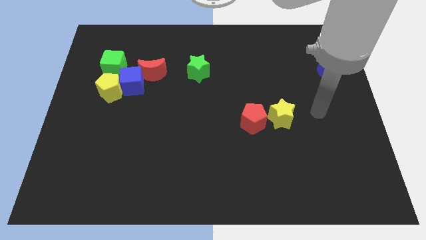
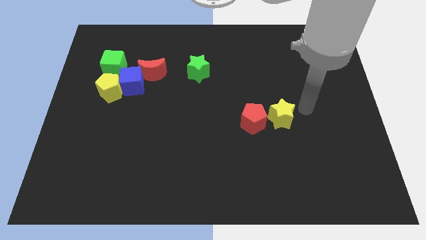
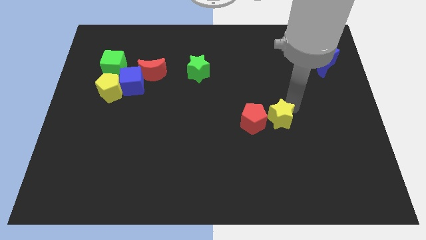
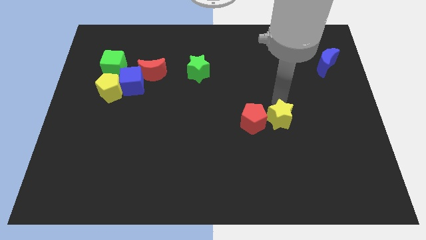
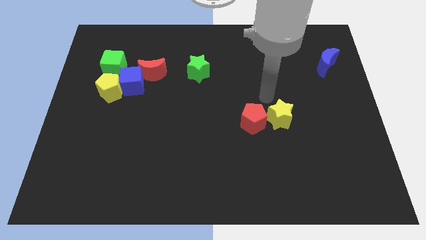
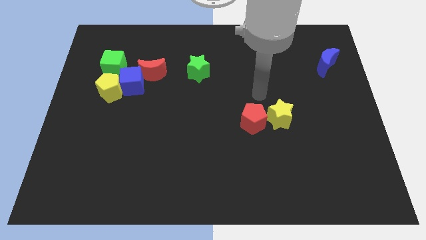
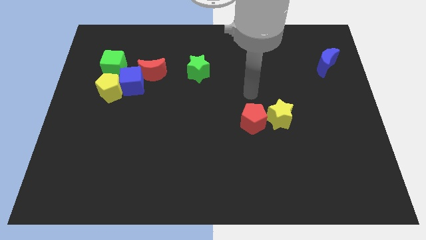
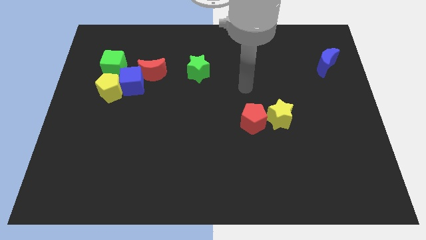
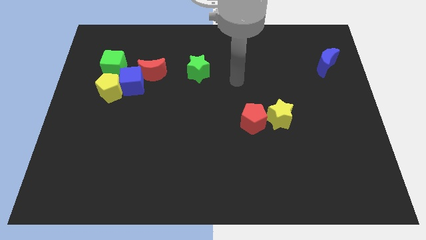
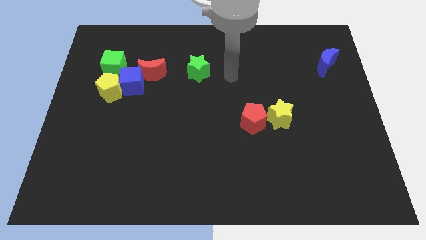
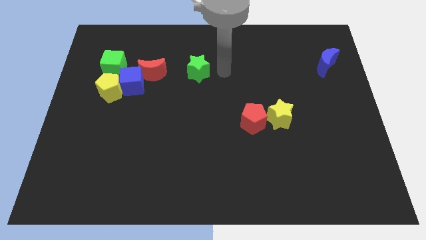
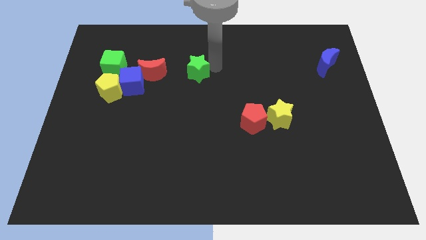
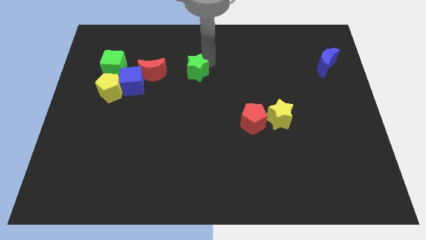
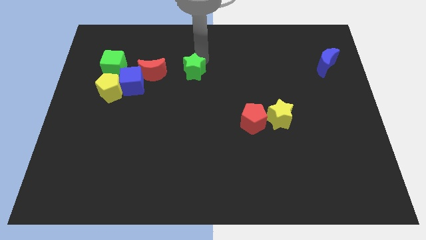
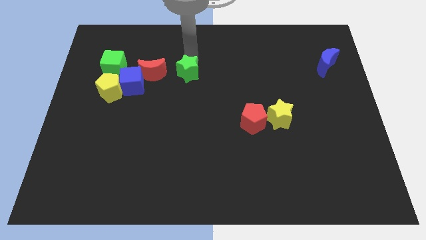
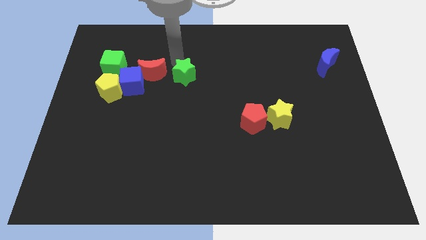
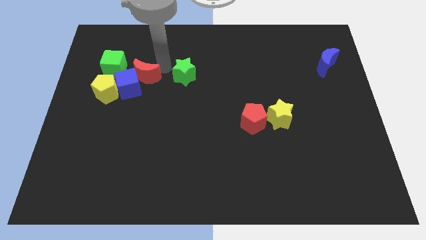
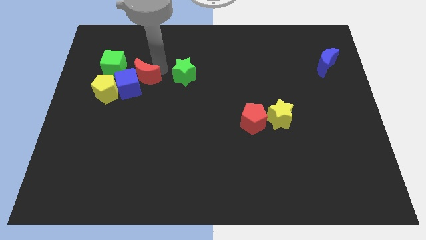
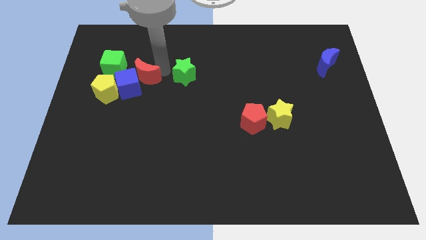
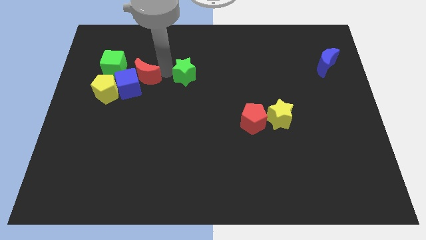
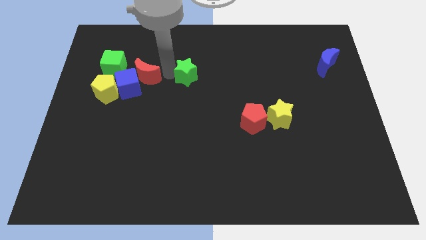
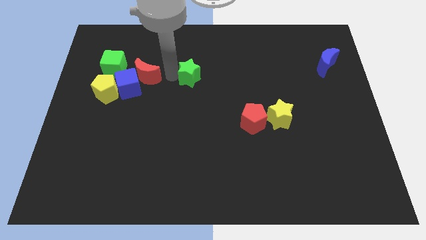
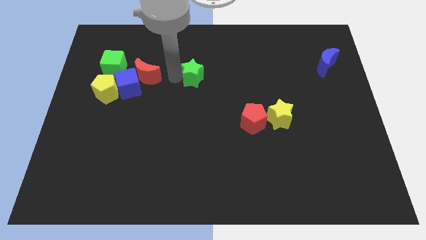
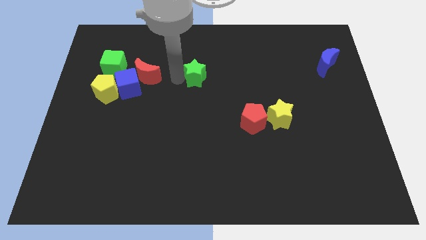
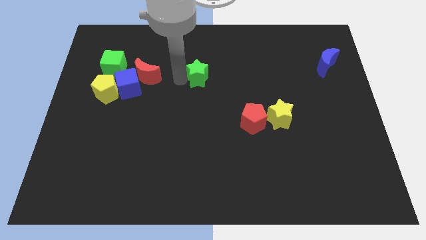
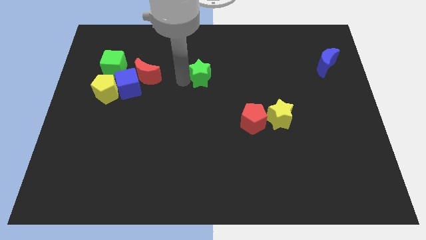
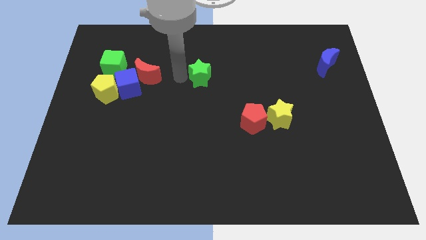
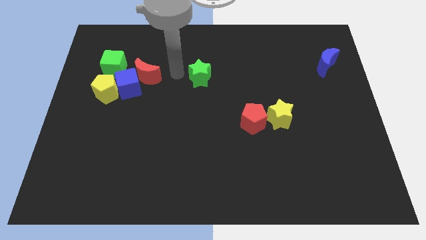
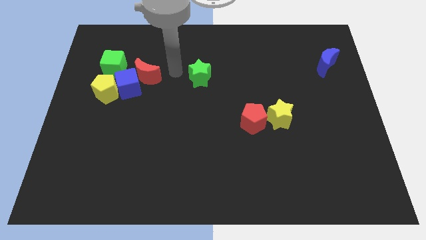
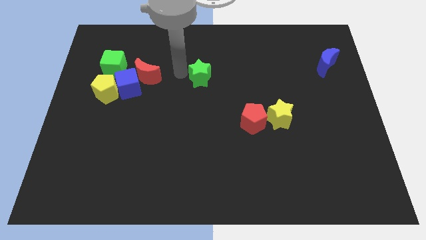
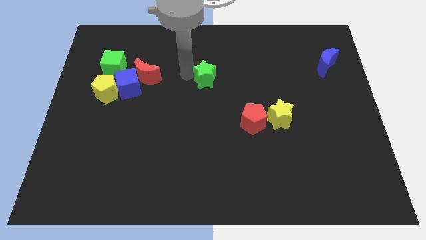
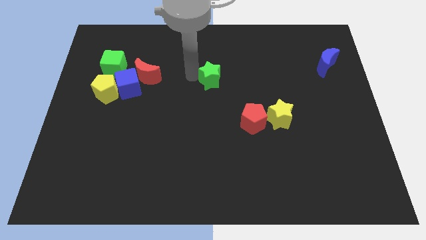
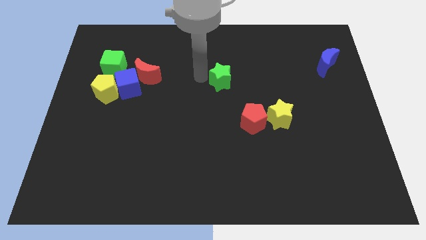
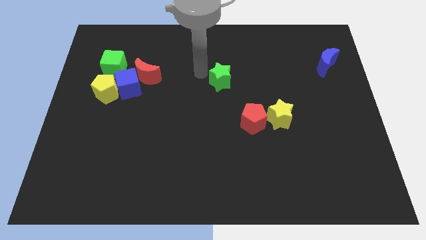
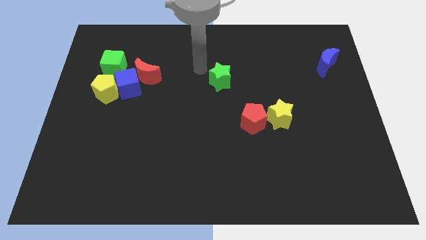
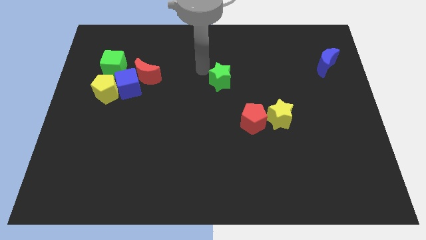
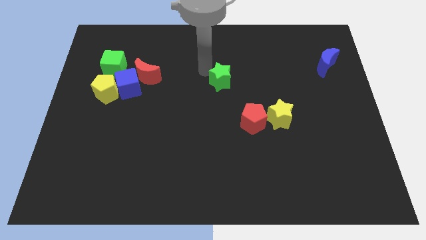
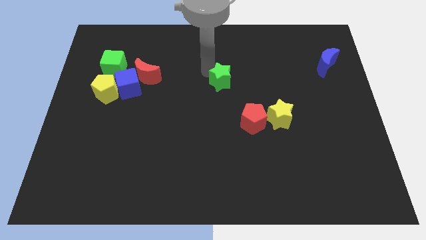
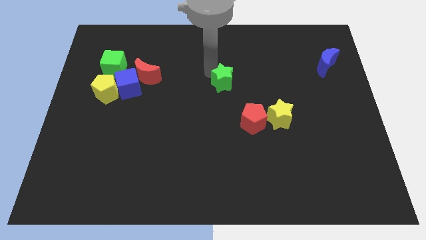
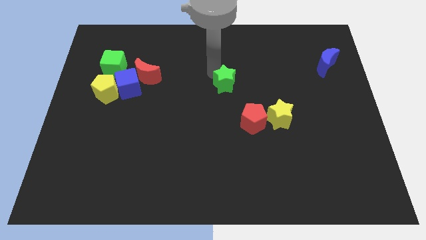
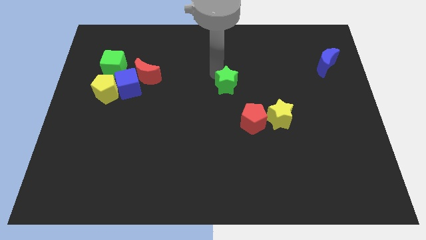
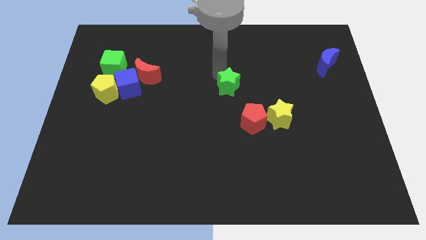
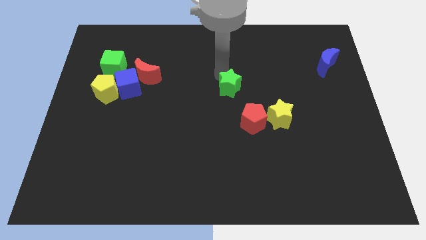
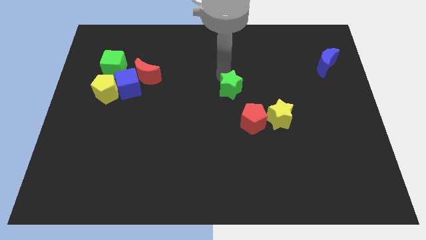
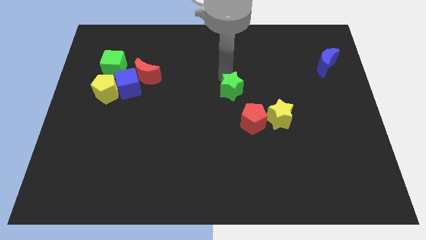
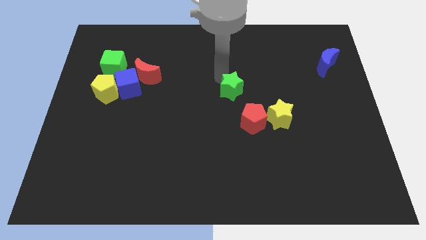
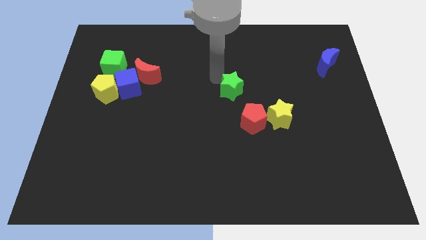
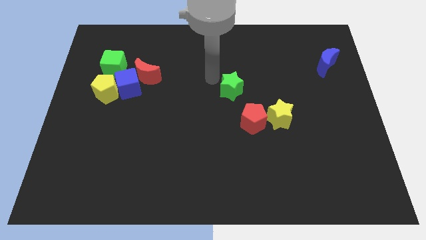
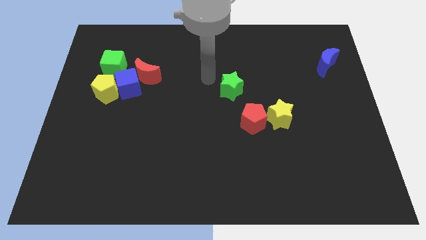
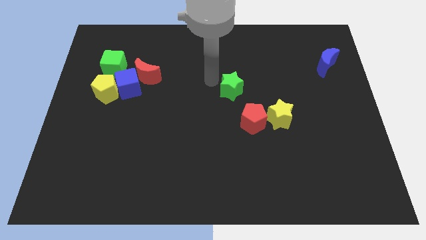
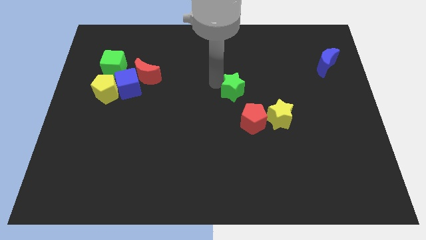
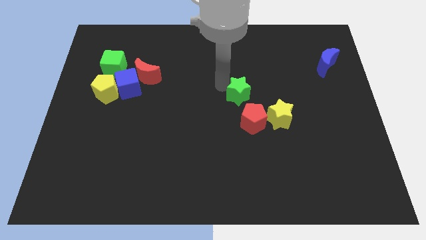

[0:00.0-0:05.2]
move the green star diagonally up and to the left of the yellow star

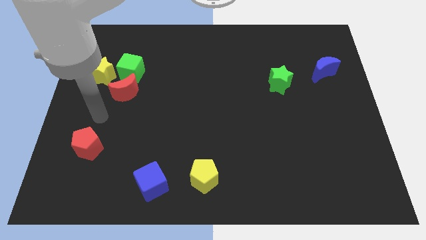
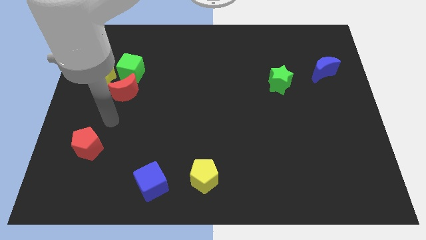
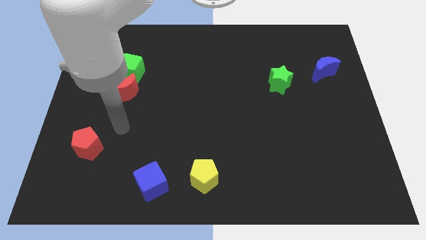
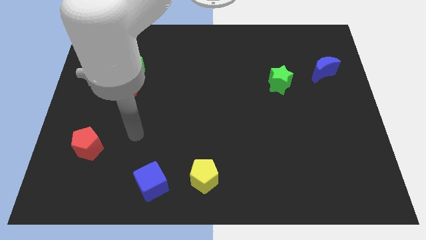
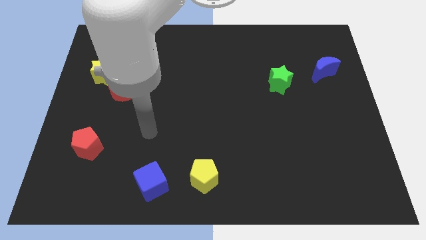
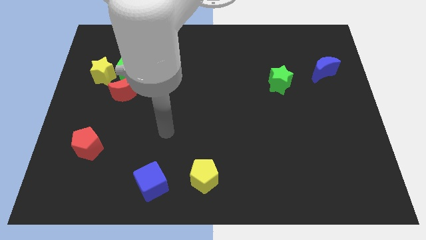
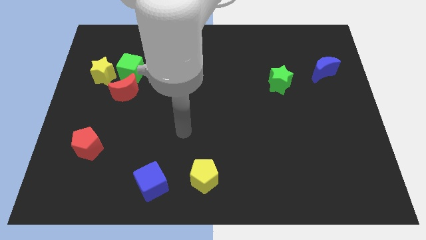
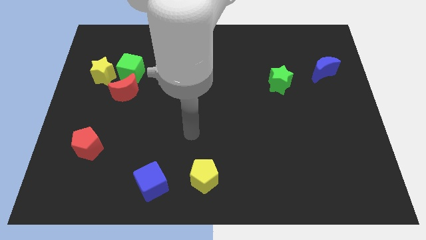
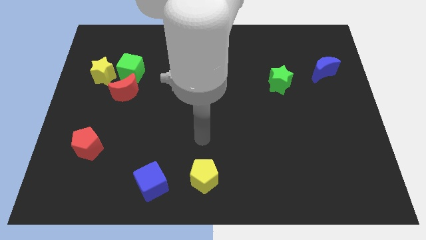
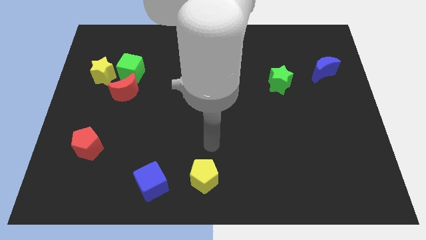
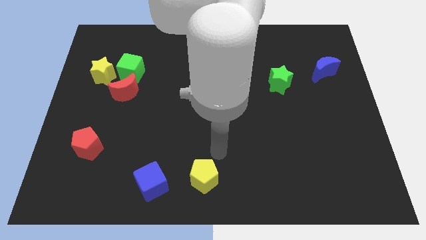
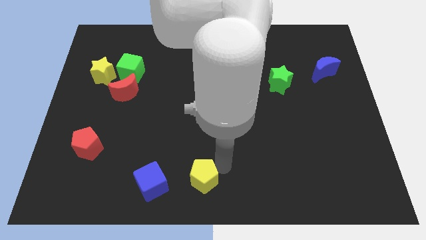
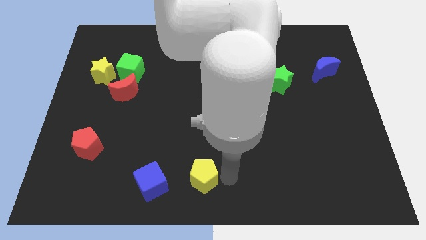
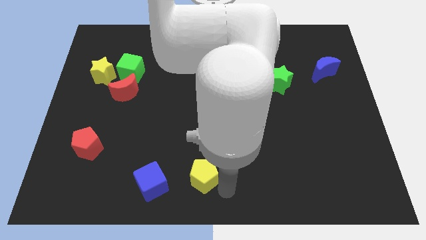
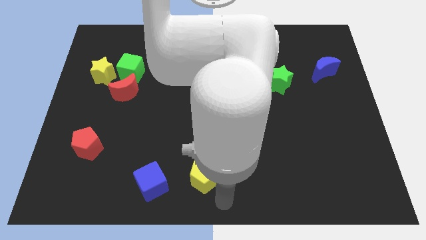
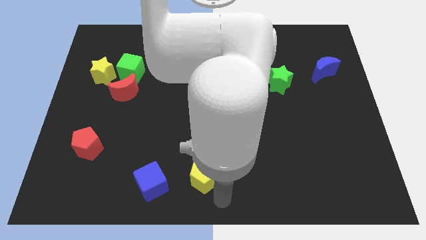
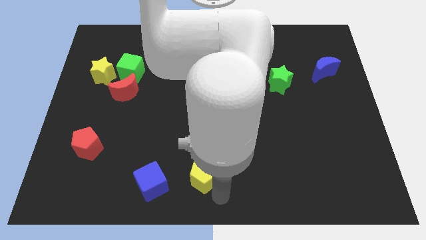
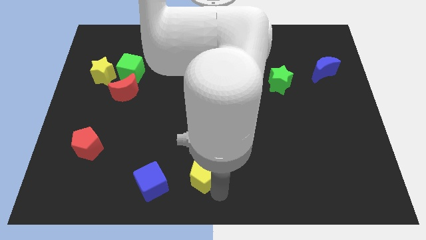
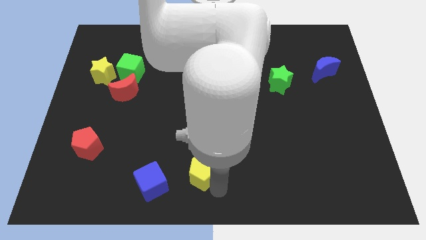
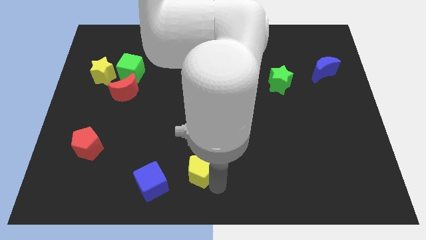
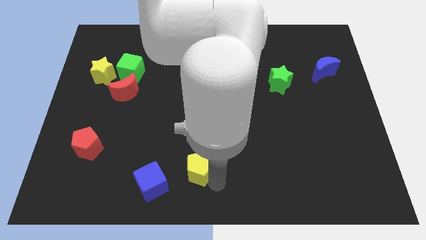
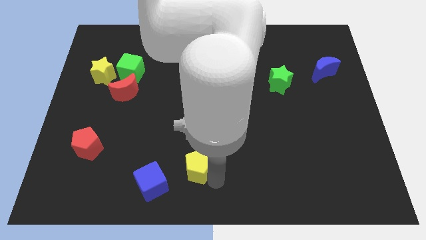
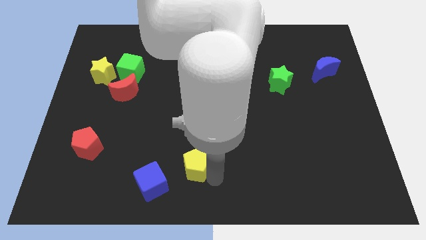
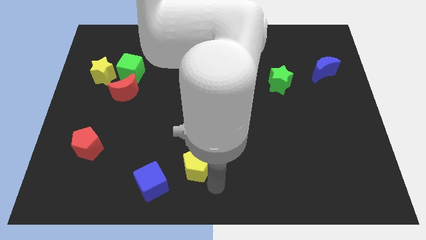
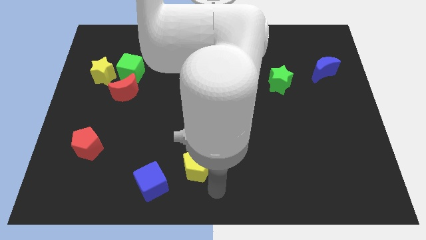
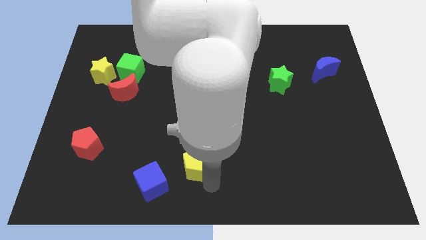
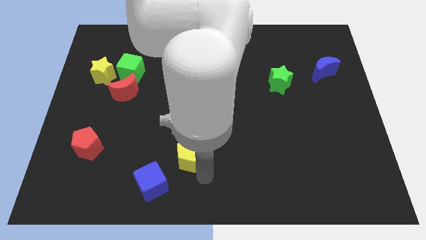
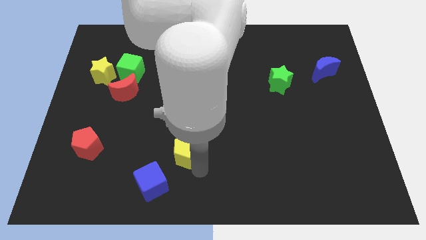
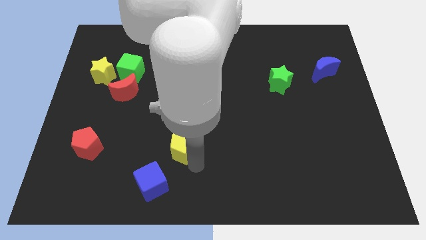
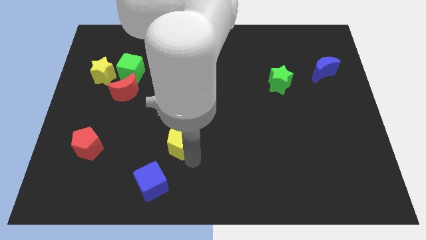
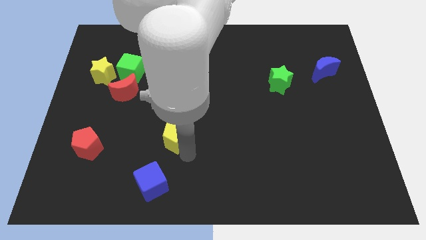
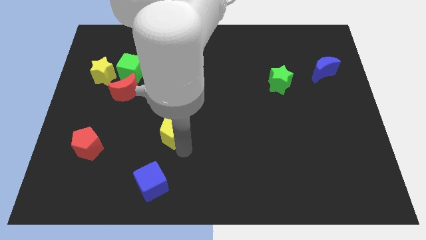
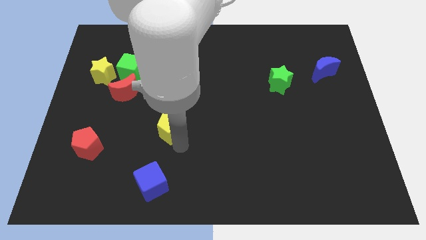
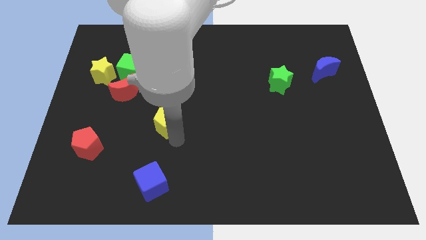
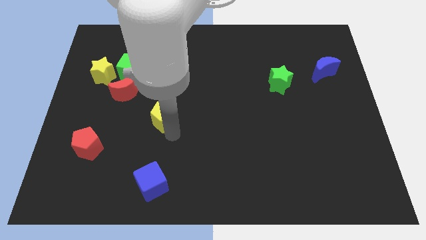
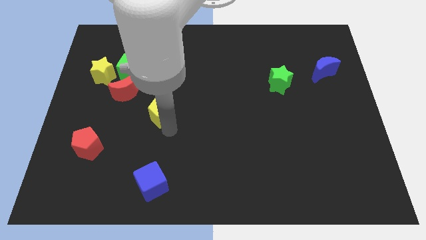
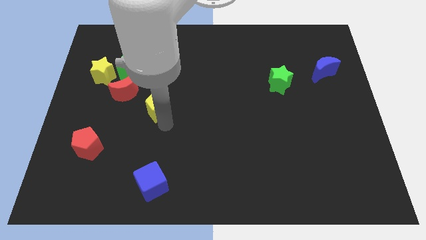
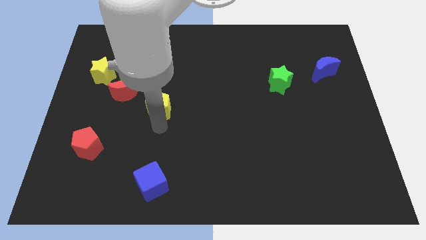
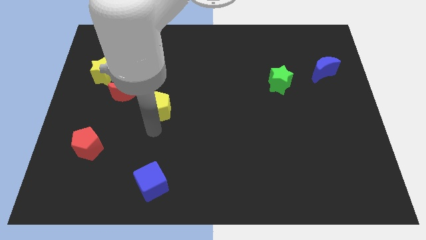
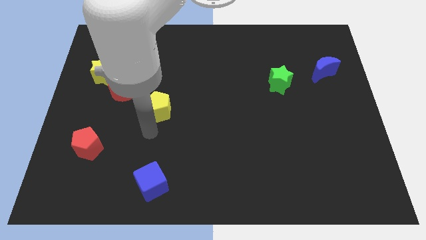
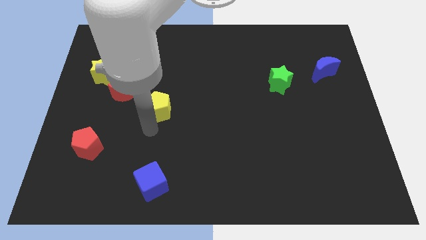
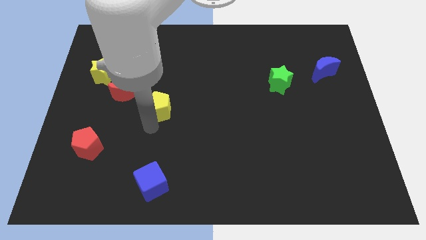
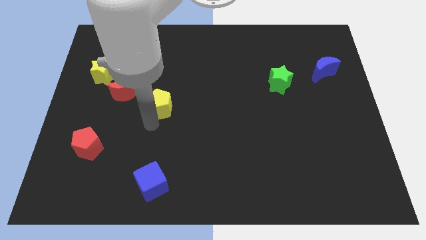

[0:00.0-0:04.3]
move the yellow pentagon to the right of the red moon
